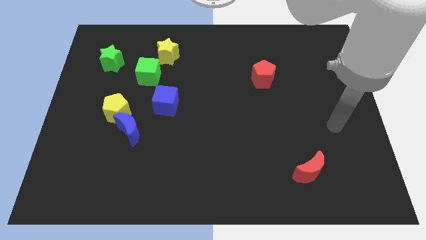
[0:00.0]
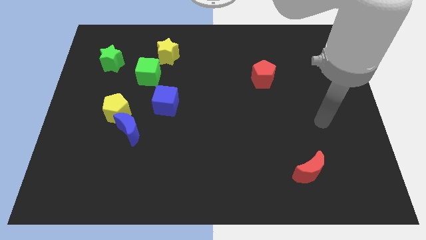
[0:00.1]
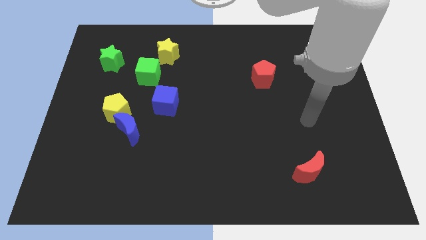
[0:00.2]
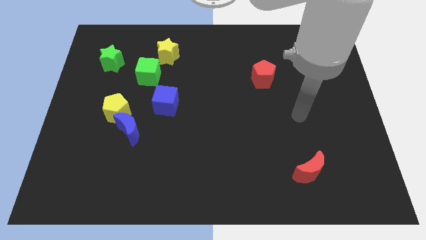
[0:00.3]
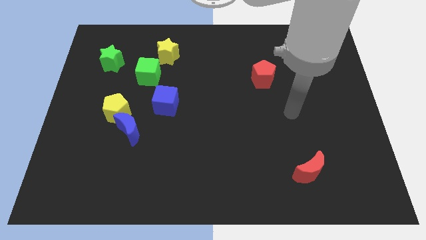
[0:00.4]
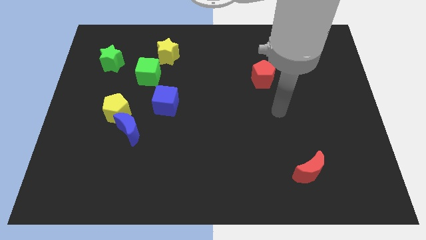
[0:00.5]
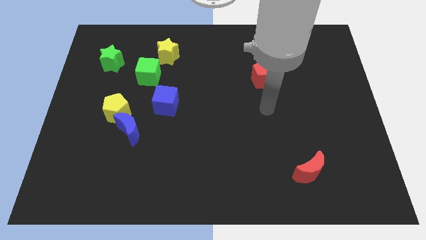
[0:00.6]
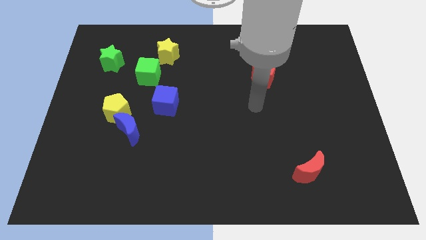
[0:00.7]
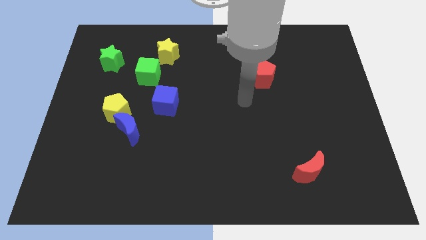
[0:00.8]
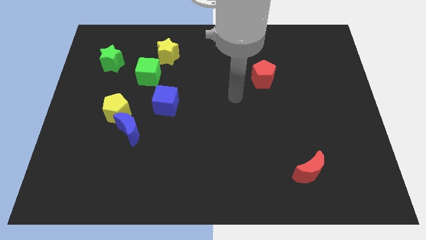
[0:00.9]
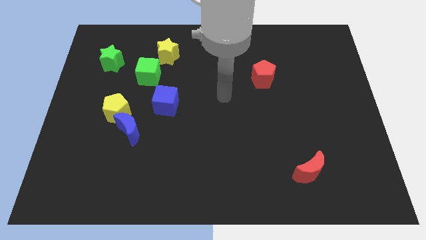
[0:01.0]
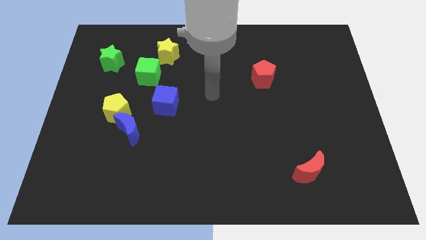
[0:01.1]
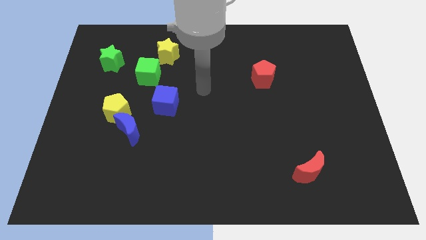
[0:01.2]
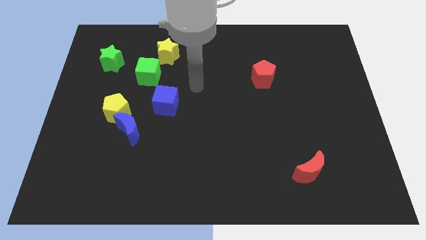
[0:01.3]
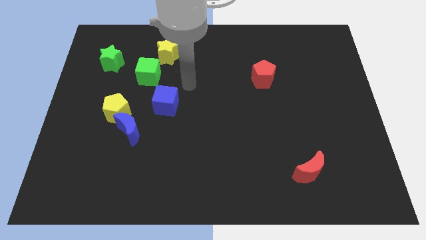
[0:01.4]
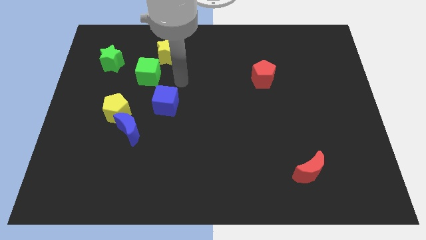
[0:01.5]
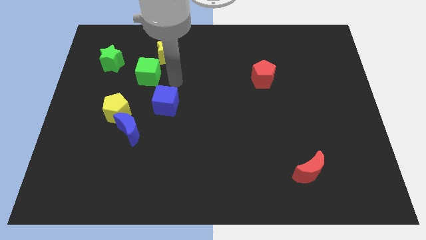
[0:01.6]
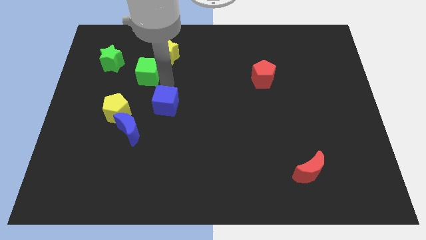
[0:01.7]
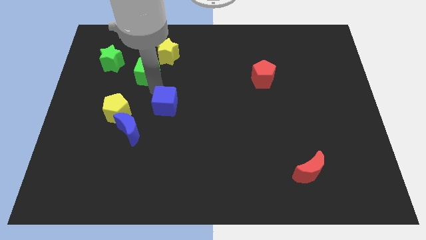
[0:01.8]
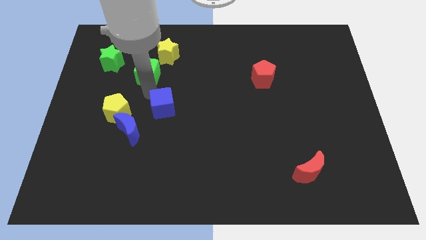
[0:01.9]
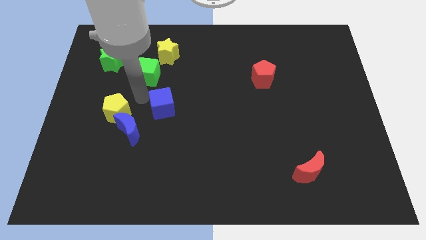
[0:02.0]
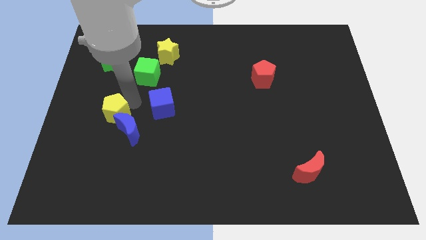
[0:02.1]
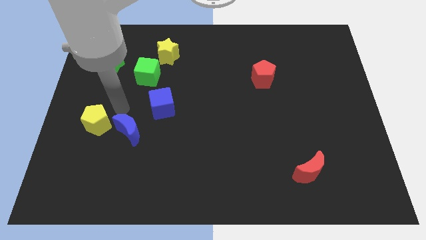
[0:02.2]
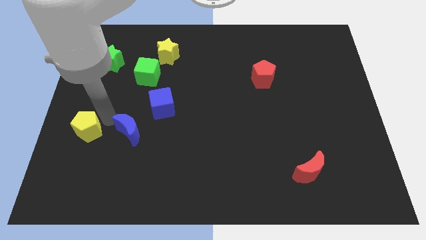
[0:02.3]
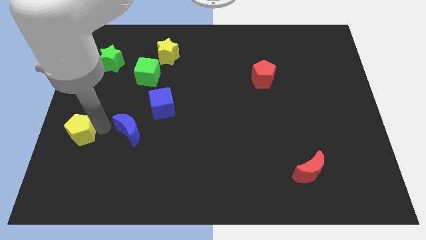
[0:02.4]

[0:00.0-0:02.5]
move the blue moon away from the yellow pentagon

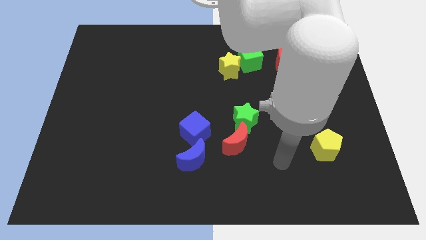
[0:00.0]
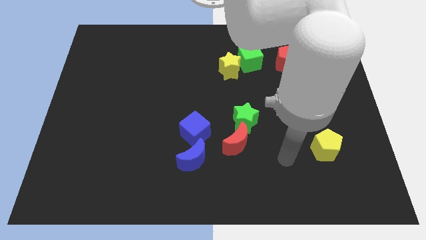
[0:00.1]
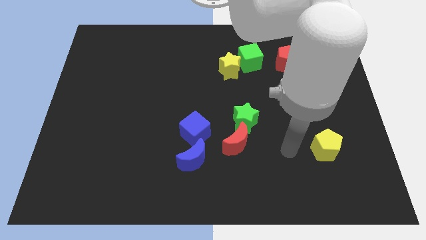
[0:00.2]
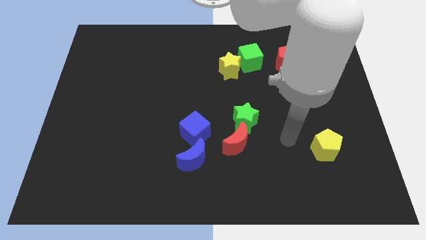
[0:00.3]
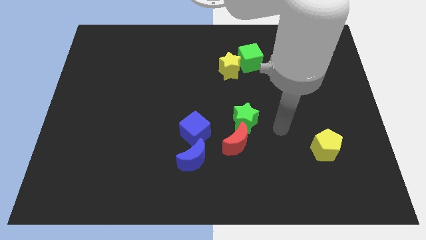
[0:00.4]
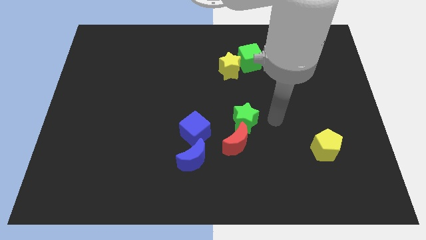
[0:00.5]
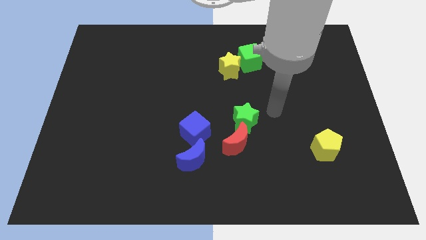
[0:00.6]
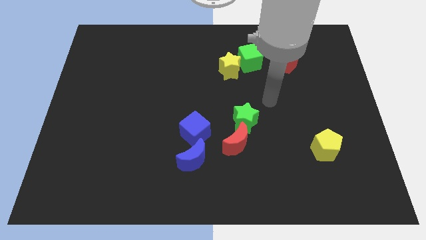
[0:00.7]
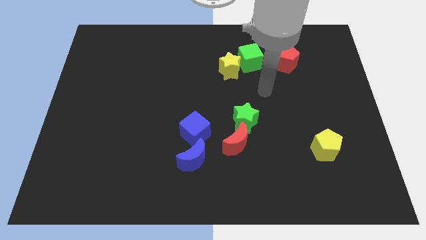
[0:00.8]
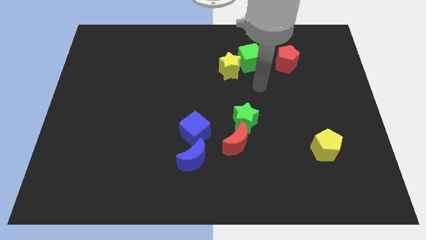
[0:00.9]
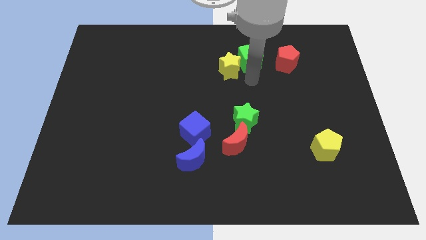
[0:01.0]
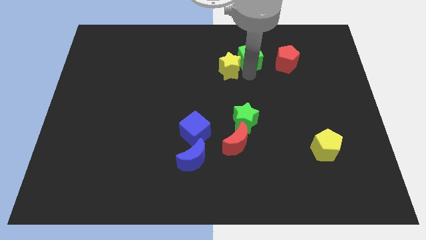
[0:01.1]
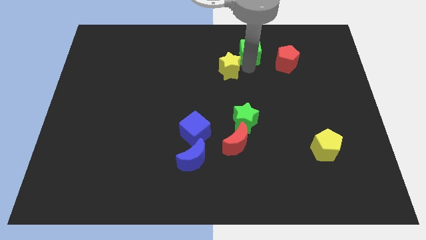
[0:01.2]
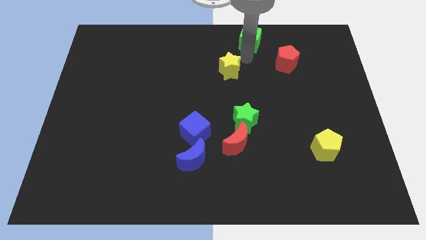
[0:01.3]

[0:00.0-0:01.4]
move the yellow star away from the green cube

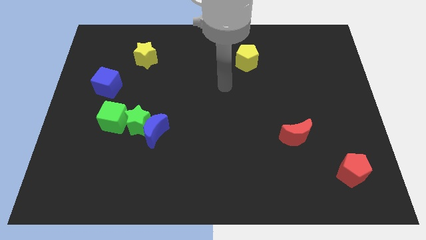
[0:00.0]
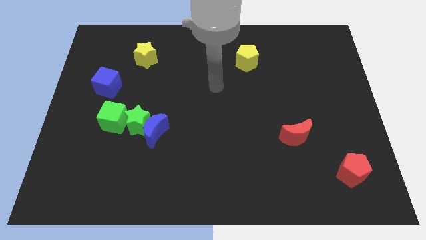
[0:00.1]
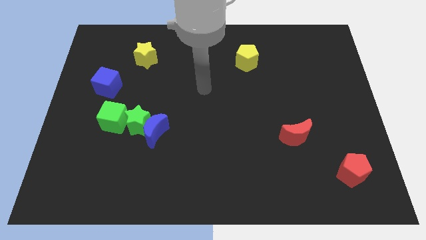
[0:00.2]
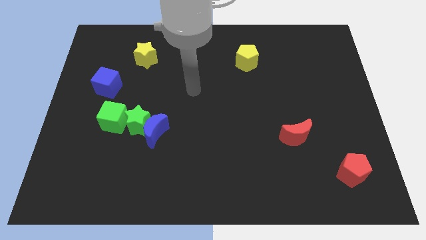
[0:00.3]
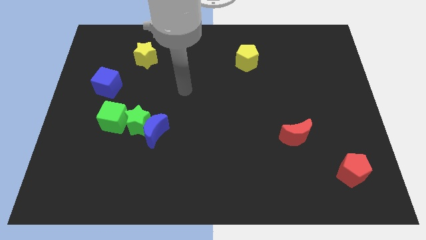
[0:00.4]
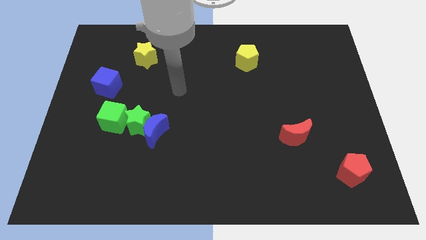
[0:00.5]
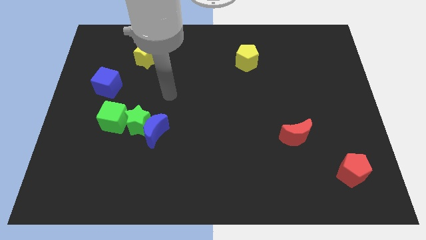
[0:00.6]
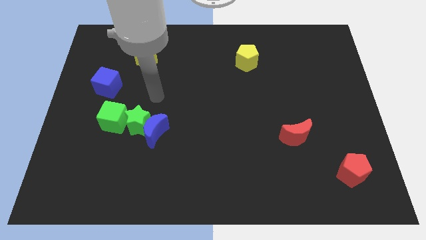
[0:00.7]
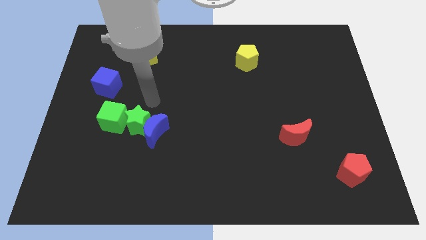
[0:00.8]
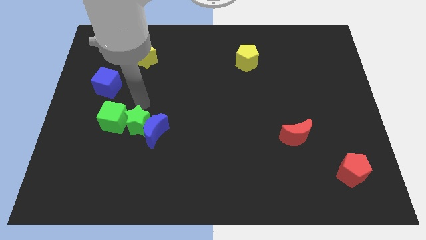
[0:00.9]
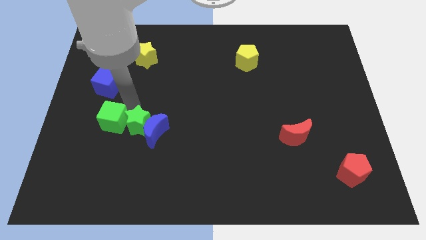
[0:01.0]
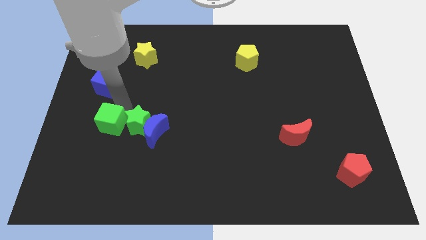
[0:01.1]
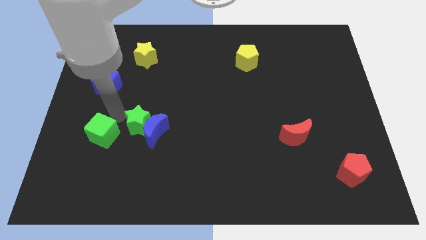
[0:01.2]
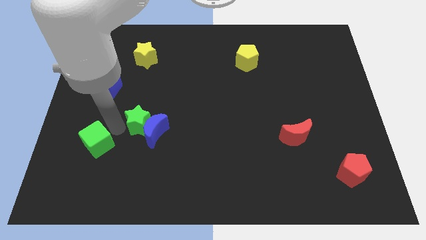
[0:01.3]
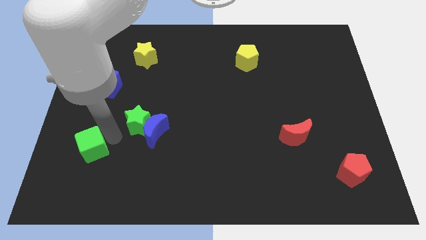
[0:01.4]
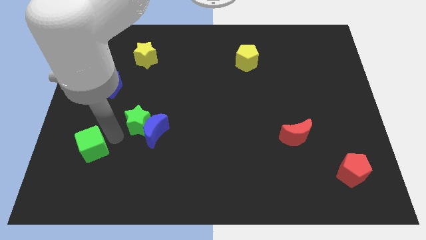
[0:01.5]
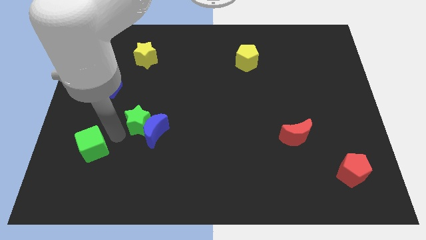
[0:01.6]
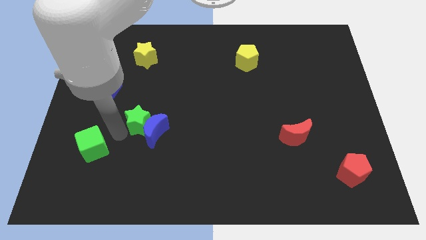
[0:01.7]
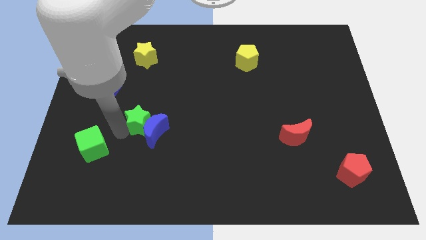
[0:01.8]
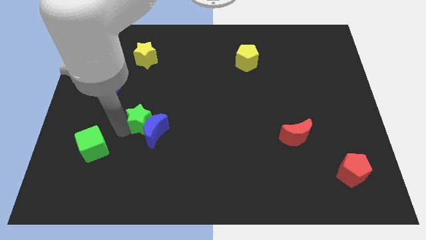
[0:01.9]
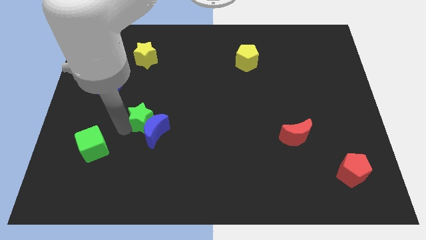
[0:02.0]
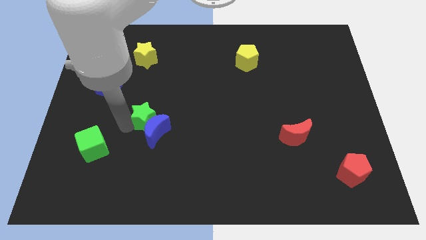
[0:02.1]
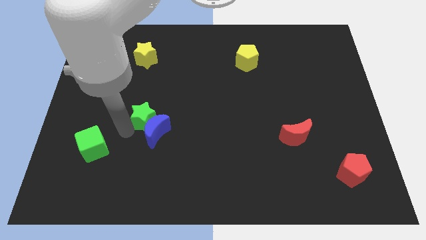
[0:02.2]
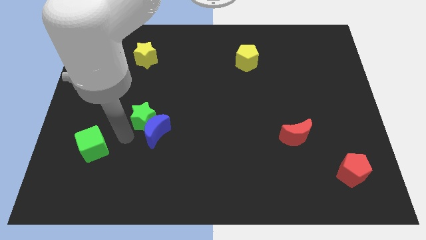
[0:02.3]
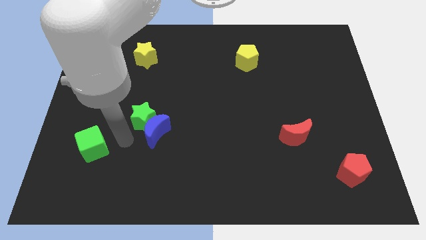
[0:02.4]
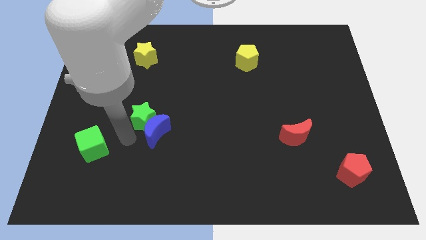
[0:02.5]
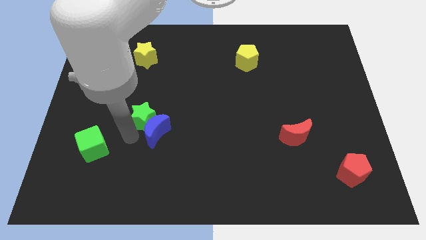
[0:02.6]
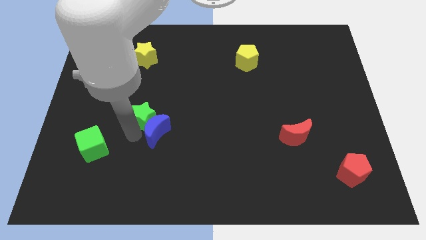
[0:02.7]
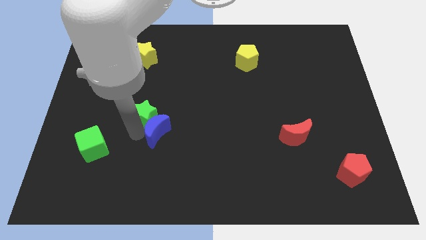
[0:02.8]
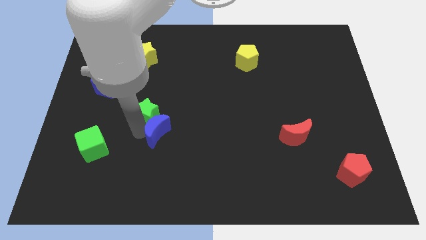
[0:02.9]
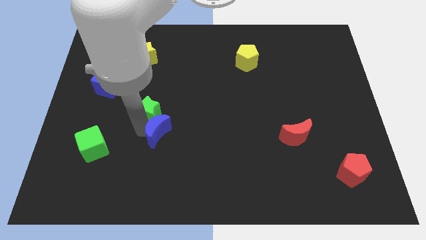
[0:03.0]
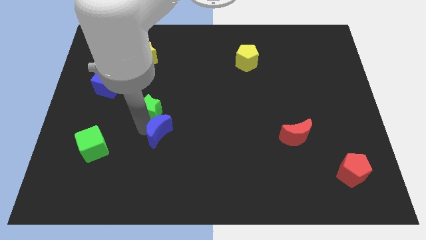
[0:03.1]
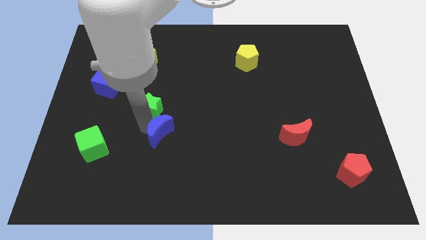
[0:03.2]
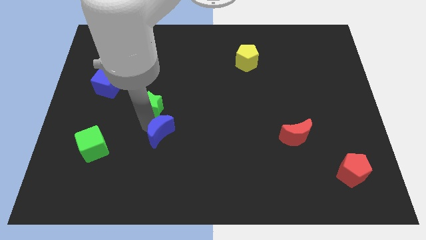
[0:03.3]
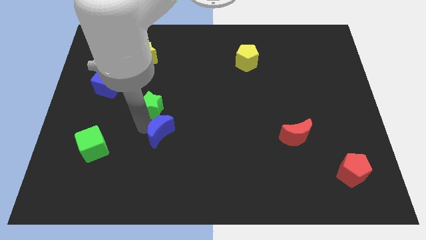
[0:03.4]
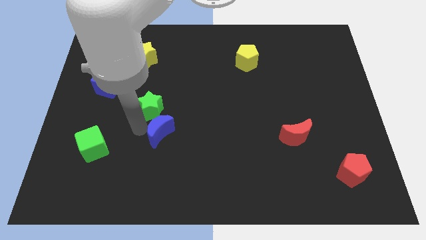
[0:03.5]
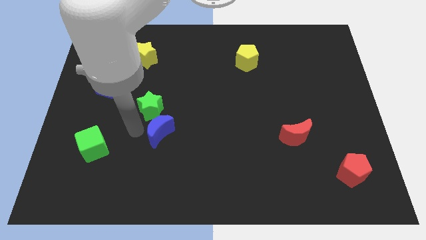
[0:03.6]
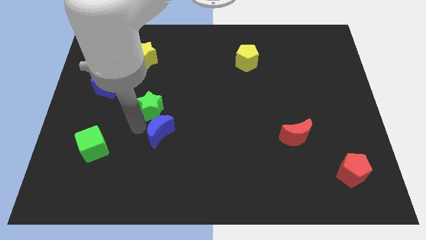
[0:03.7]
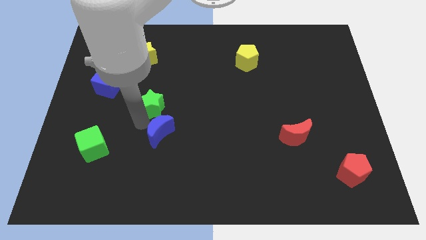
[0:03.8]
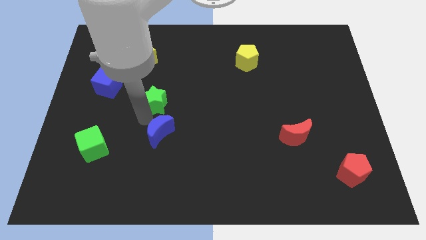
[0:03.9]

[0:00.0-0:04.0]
move the green star away from the blue moon and green cube

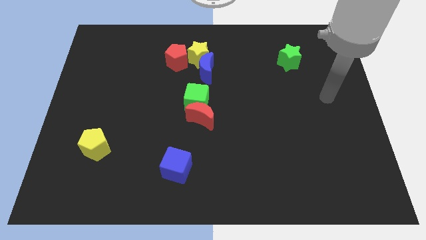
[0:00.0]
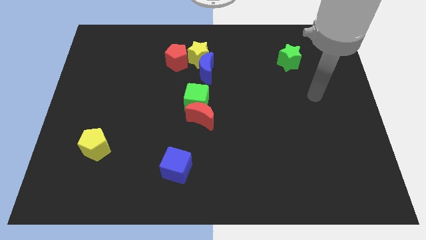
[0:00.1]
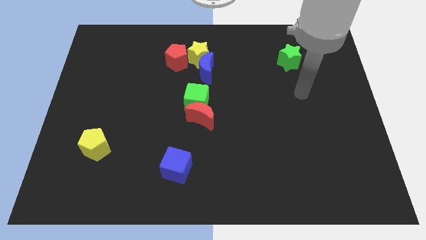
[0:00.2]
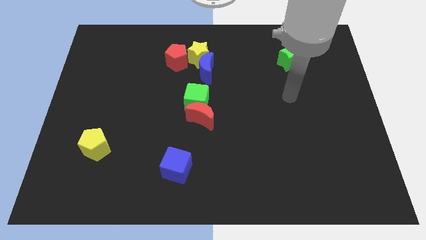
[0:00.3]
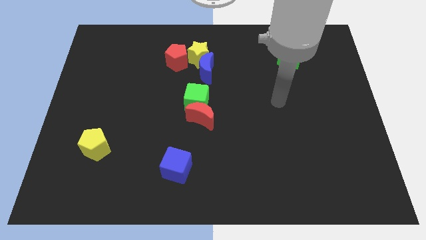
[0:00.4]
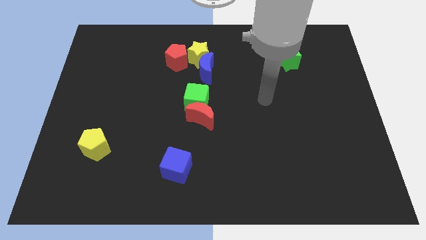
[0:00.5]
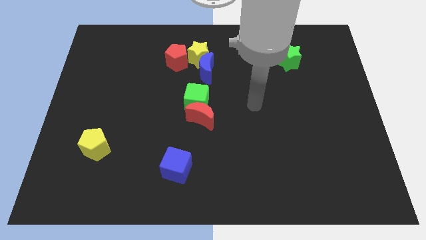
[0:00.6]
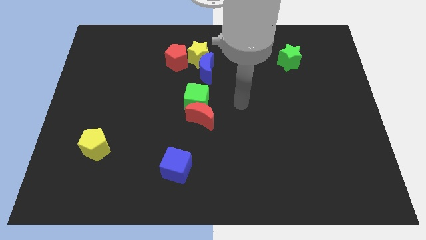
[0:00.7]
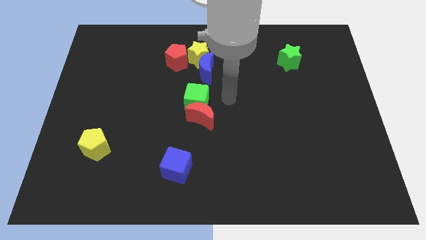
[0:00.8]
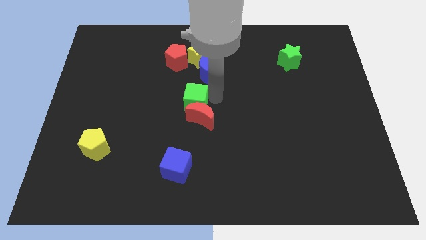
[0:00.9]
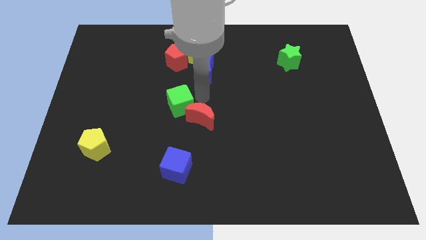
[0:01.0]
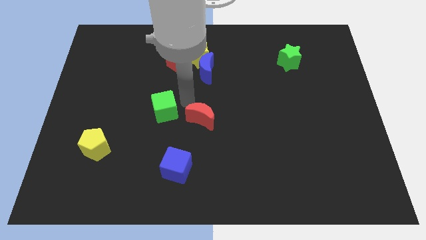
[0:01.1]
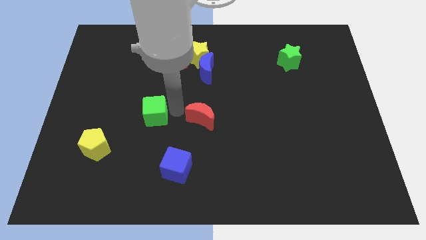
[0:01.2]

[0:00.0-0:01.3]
pull the red moon apart from the green cube

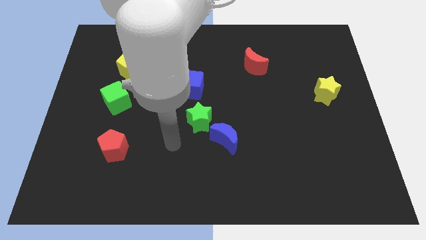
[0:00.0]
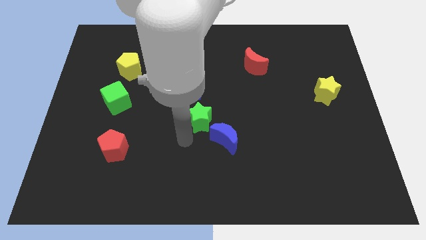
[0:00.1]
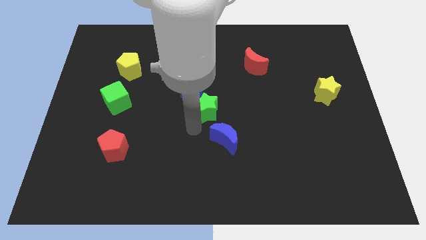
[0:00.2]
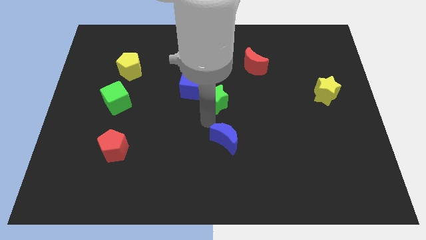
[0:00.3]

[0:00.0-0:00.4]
pull the blue moon apart from the green star
